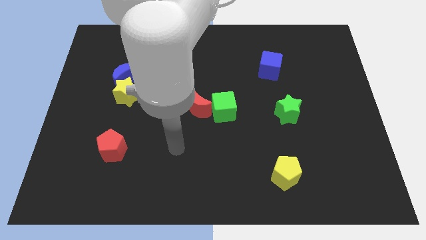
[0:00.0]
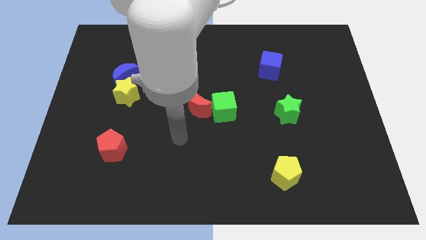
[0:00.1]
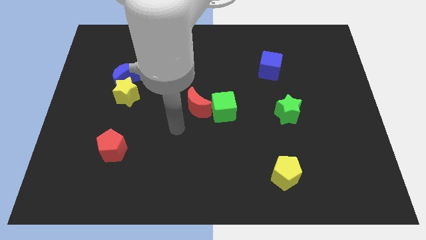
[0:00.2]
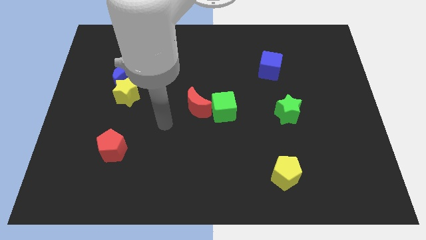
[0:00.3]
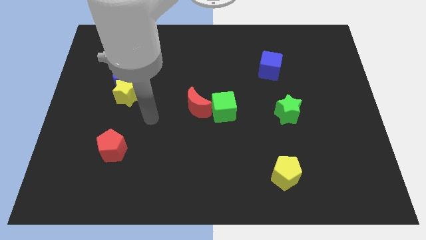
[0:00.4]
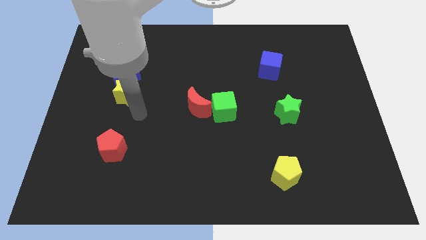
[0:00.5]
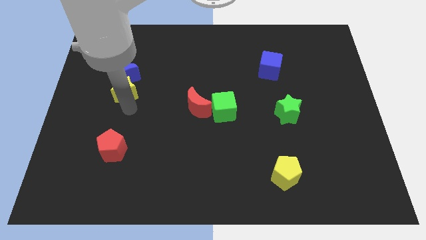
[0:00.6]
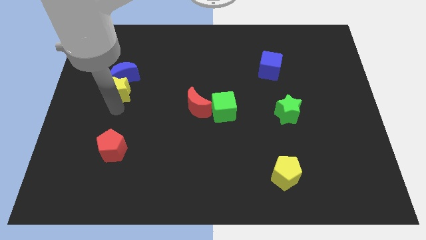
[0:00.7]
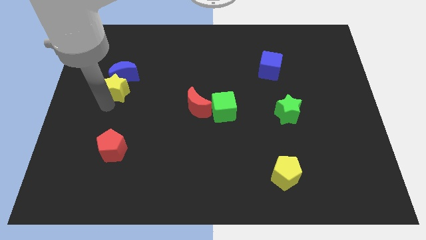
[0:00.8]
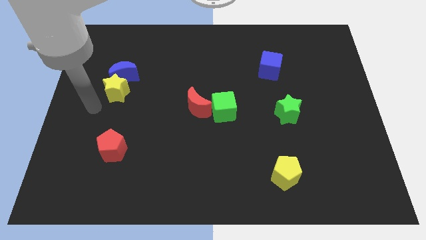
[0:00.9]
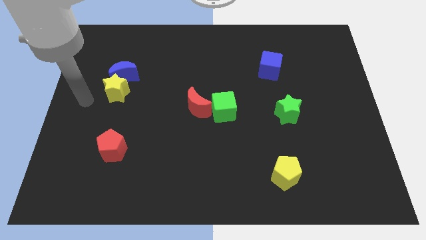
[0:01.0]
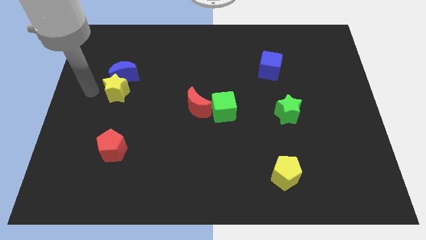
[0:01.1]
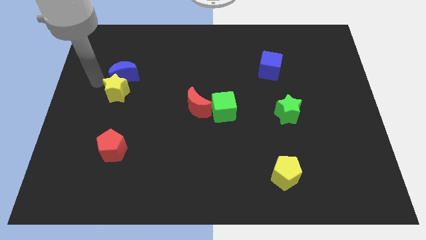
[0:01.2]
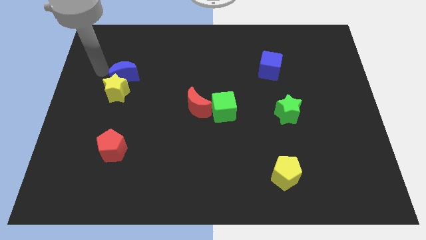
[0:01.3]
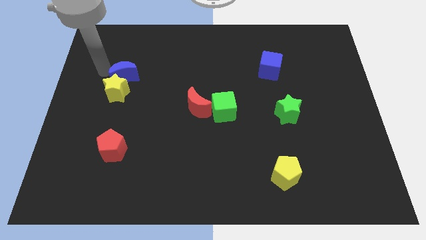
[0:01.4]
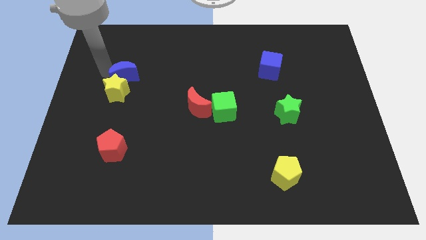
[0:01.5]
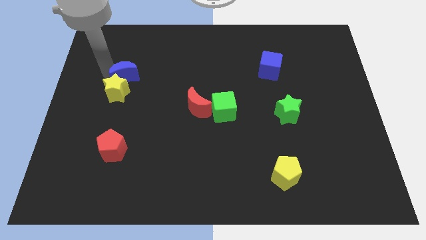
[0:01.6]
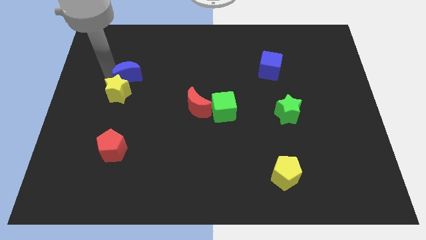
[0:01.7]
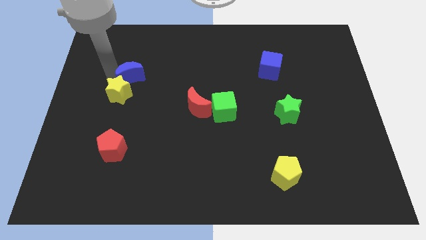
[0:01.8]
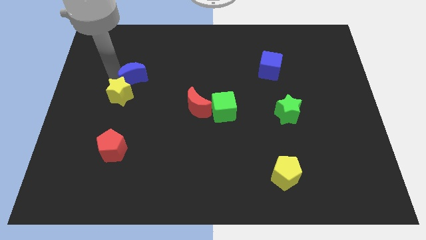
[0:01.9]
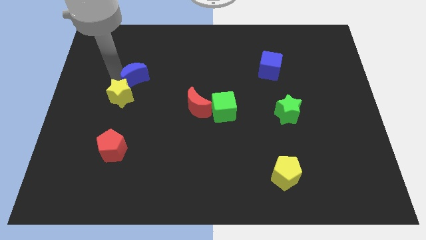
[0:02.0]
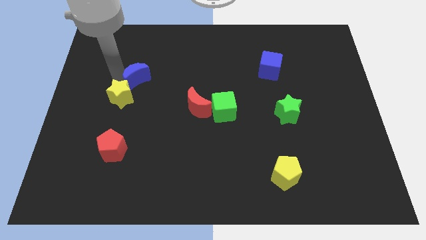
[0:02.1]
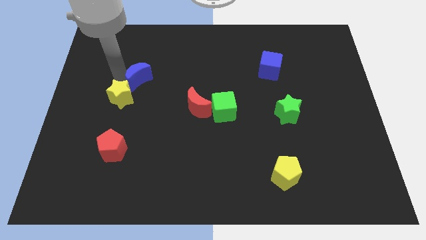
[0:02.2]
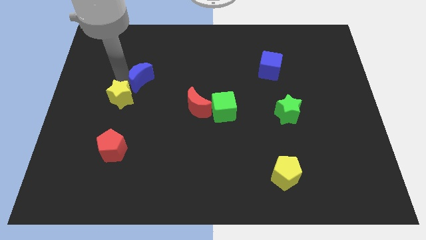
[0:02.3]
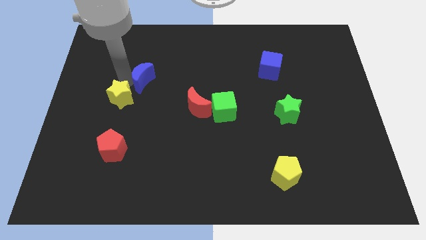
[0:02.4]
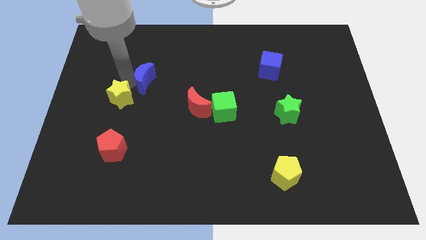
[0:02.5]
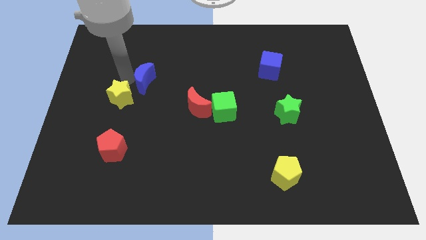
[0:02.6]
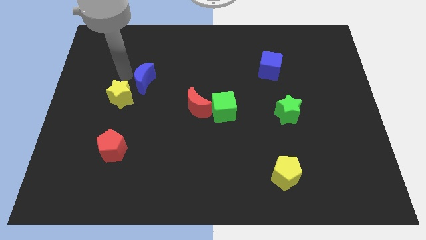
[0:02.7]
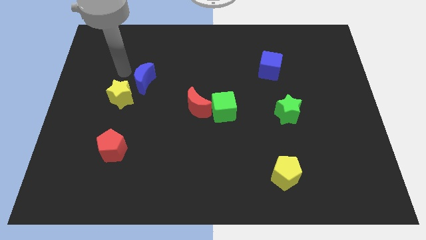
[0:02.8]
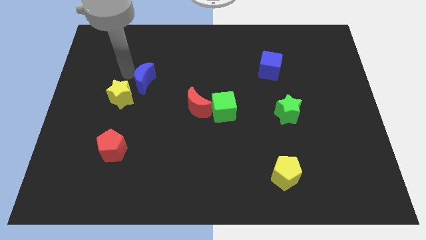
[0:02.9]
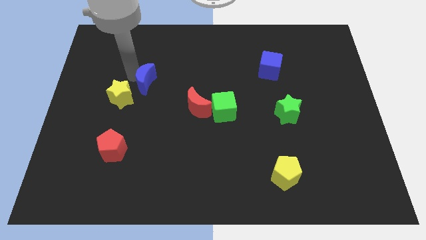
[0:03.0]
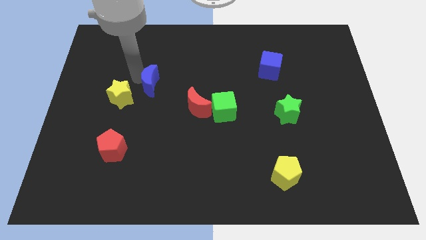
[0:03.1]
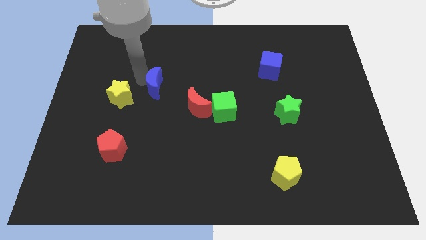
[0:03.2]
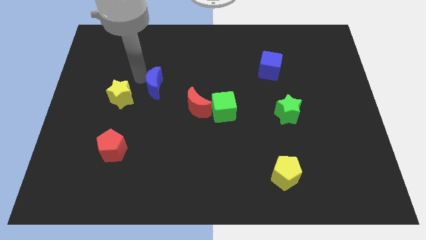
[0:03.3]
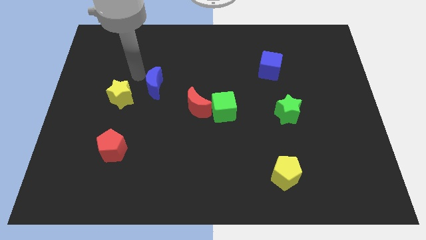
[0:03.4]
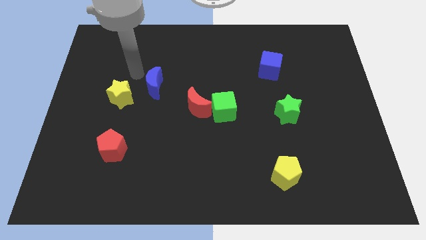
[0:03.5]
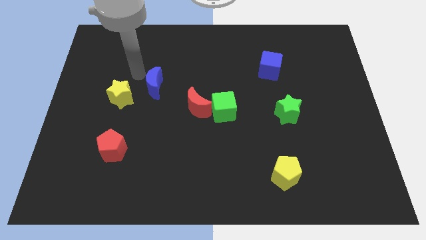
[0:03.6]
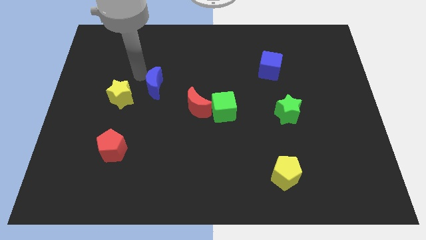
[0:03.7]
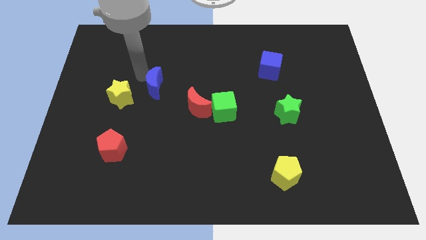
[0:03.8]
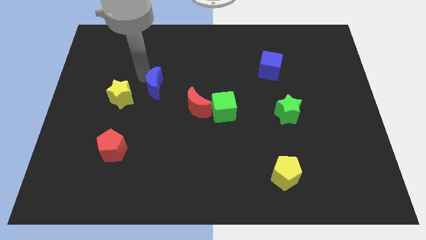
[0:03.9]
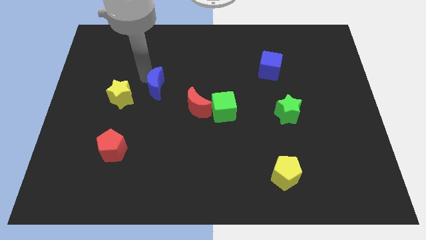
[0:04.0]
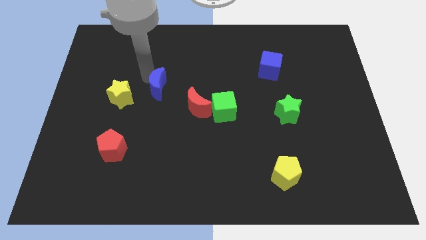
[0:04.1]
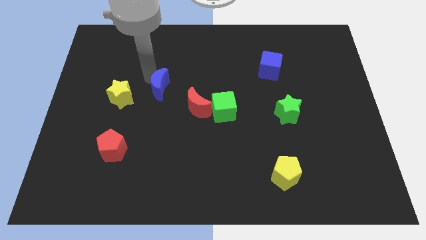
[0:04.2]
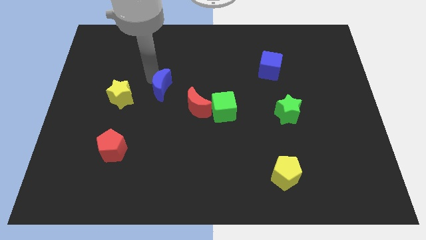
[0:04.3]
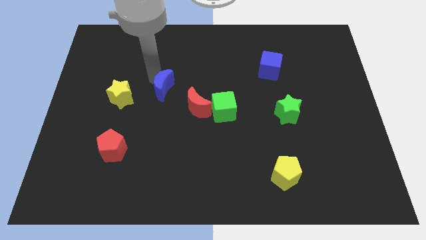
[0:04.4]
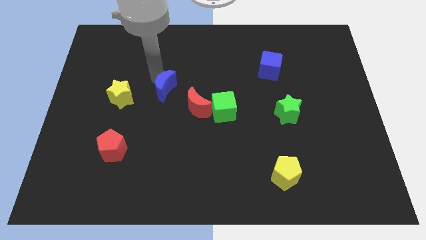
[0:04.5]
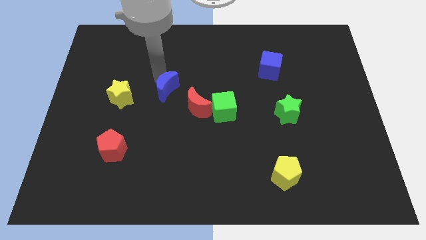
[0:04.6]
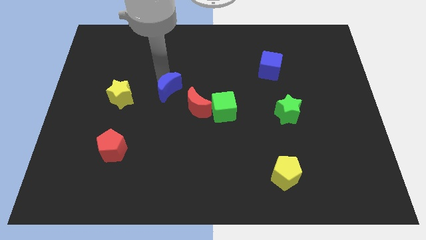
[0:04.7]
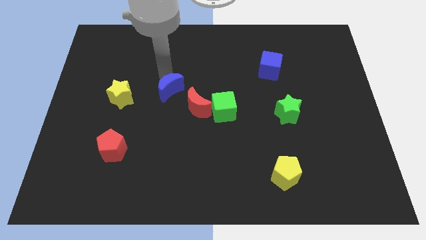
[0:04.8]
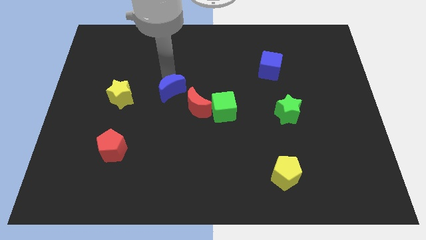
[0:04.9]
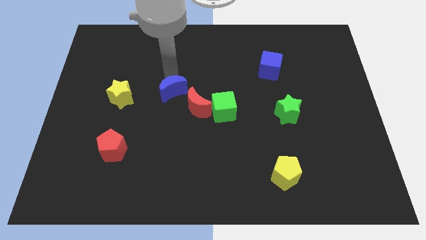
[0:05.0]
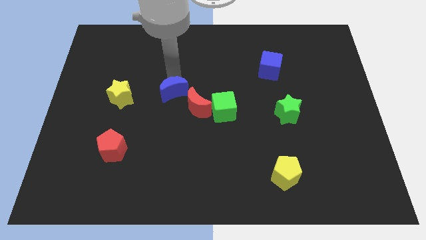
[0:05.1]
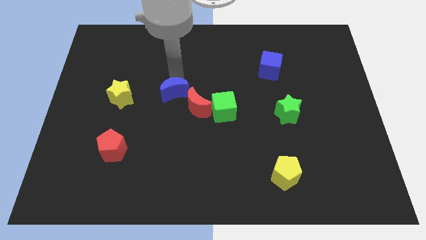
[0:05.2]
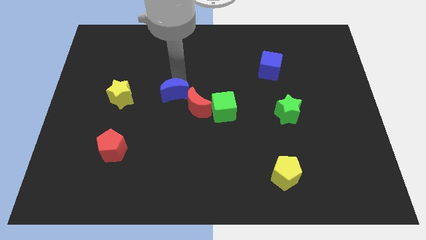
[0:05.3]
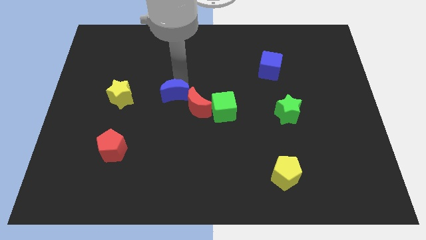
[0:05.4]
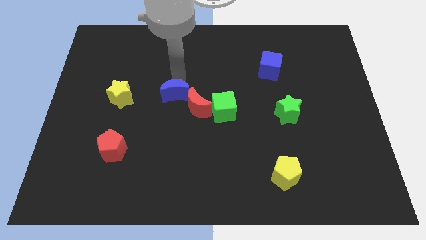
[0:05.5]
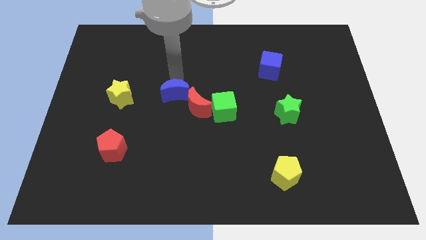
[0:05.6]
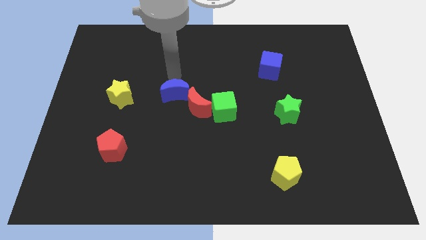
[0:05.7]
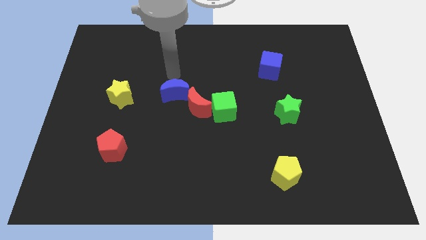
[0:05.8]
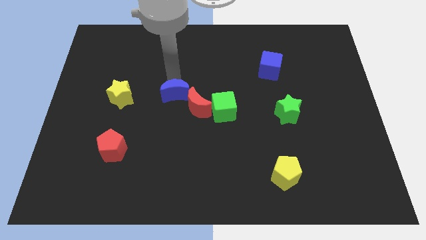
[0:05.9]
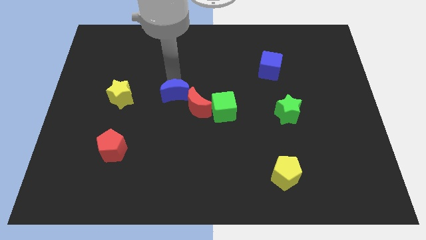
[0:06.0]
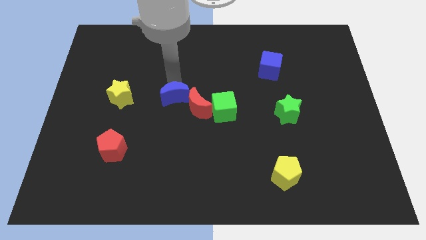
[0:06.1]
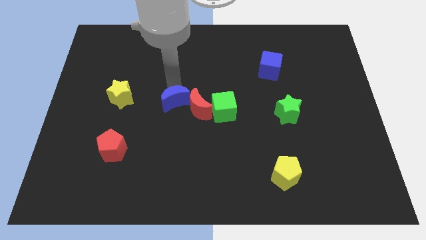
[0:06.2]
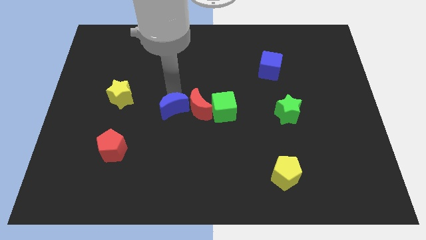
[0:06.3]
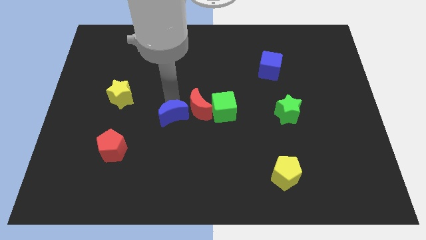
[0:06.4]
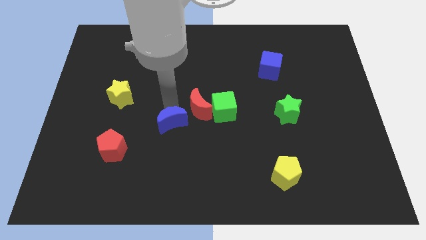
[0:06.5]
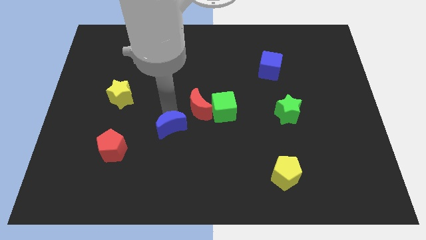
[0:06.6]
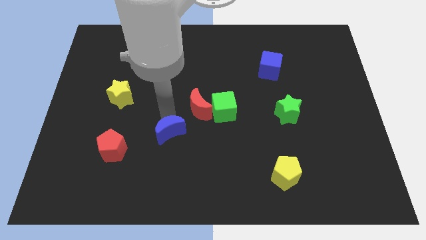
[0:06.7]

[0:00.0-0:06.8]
slide the blue moon diagonally downwards and to the right

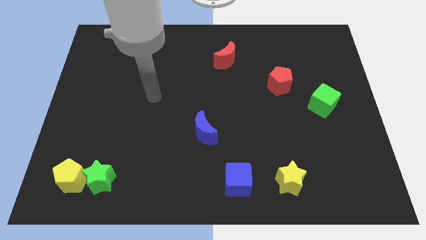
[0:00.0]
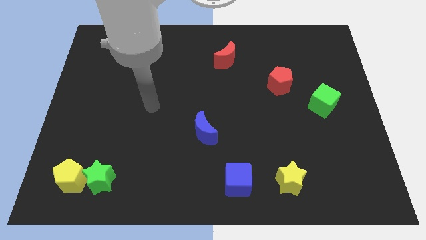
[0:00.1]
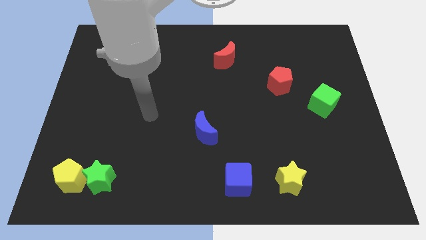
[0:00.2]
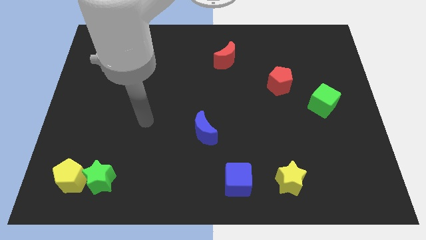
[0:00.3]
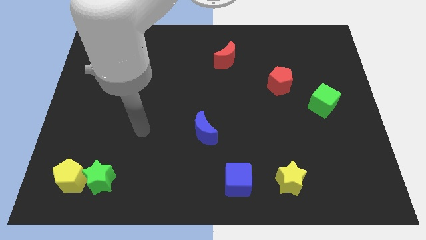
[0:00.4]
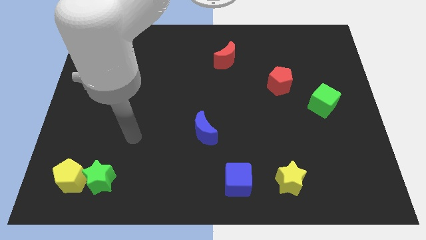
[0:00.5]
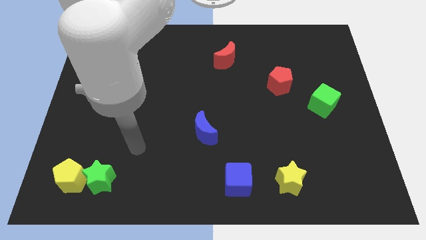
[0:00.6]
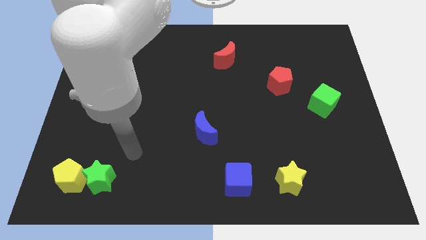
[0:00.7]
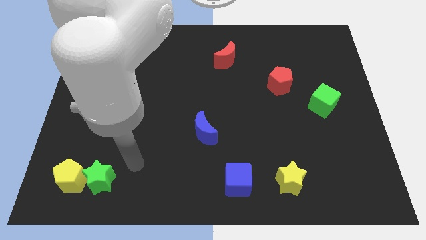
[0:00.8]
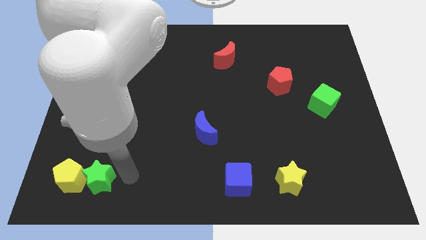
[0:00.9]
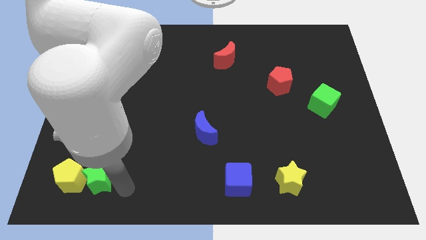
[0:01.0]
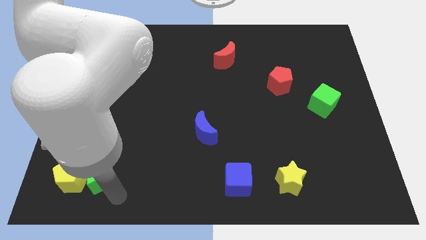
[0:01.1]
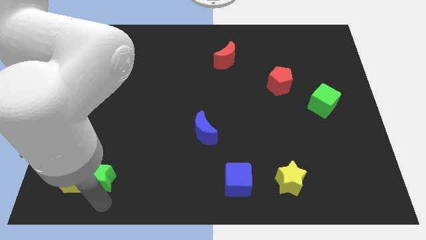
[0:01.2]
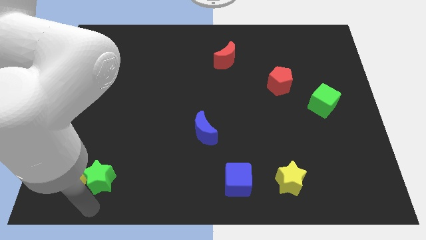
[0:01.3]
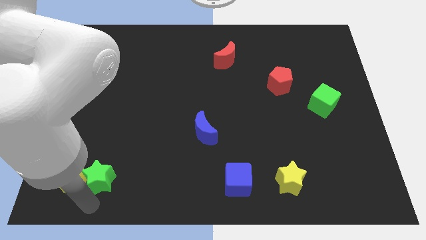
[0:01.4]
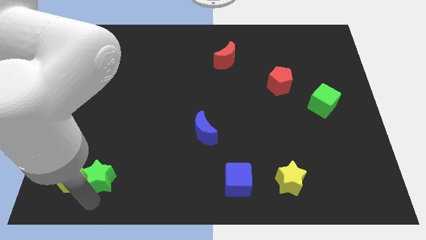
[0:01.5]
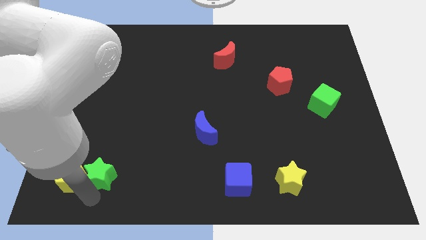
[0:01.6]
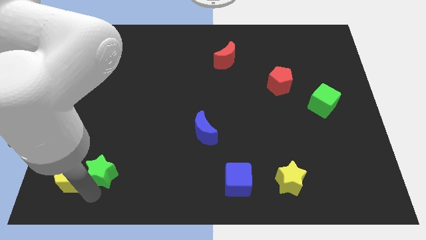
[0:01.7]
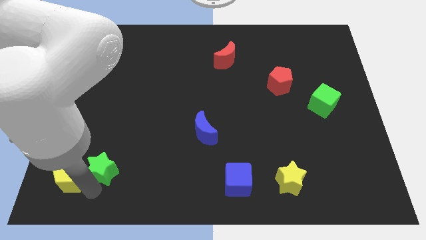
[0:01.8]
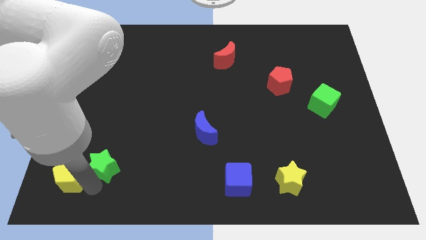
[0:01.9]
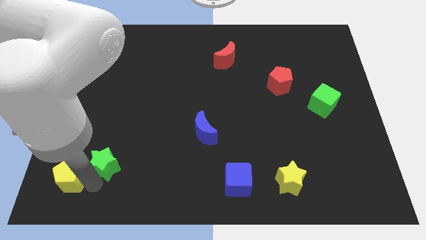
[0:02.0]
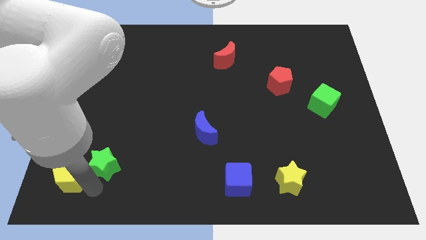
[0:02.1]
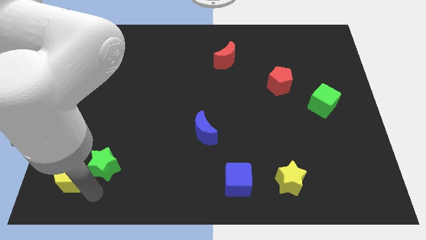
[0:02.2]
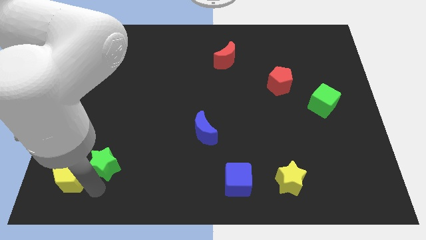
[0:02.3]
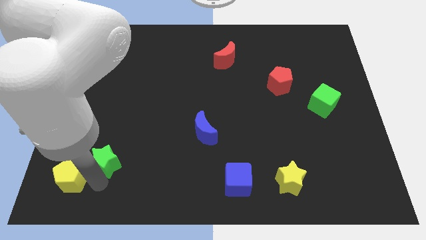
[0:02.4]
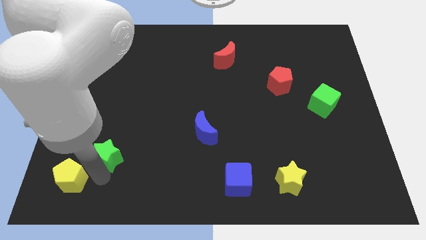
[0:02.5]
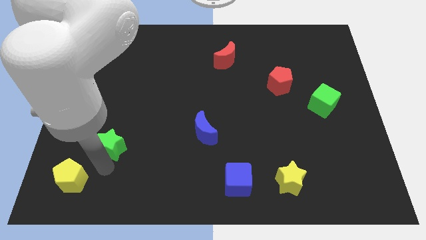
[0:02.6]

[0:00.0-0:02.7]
slightly move the green star upwards
